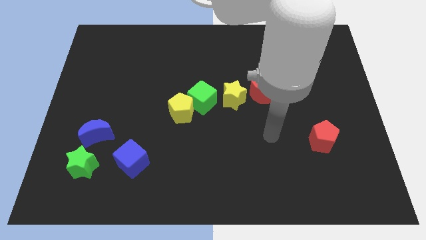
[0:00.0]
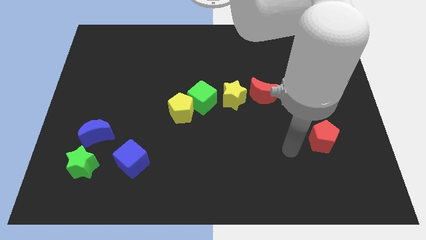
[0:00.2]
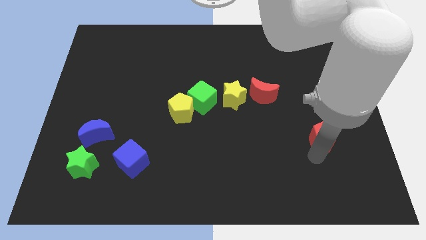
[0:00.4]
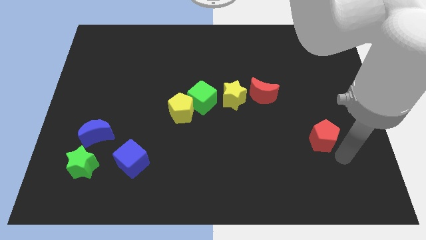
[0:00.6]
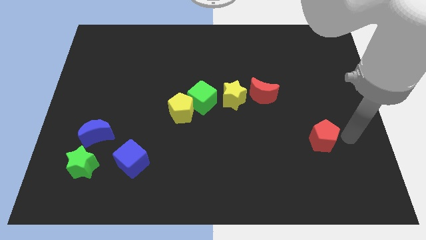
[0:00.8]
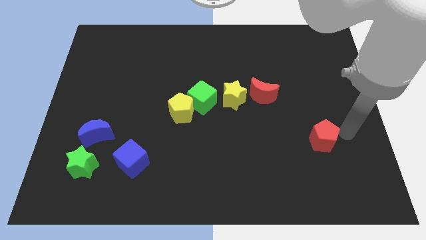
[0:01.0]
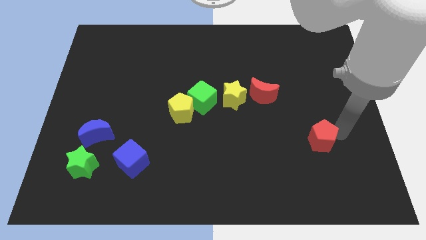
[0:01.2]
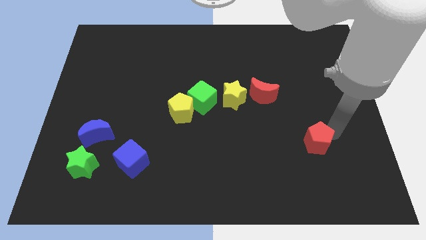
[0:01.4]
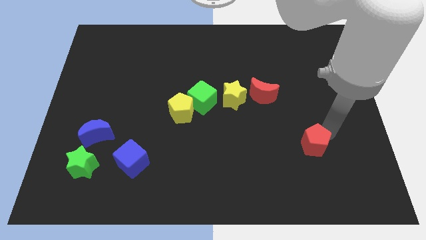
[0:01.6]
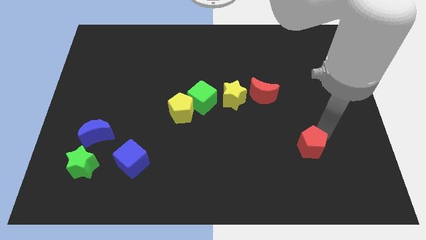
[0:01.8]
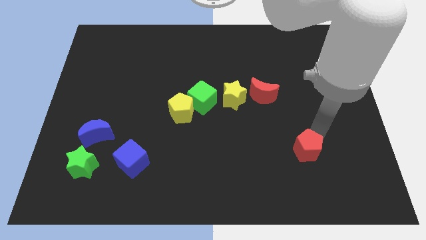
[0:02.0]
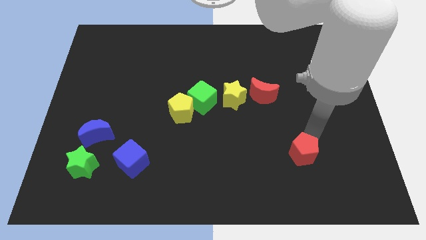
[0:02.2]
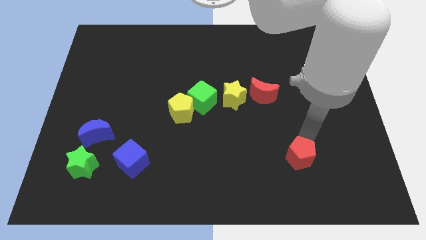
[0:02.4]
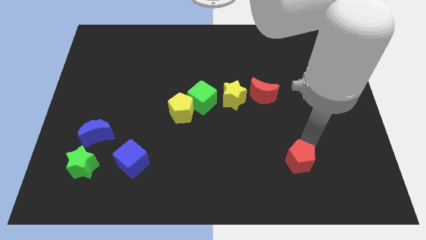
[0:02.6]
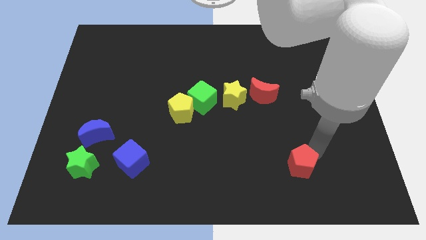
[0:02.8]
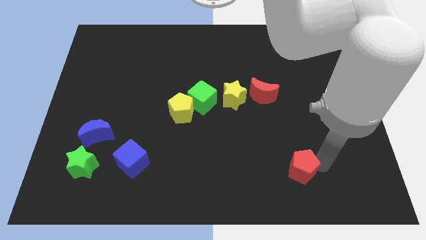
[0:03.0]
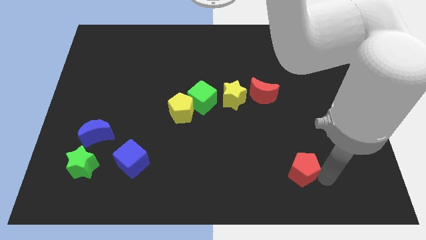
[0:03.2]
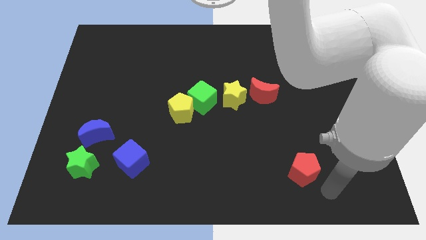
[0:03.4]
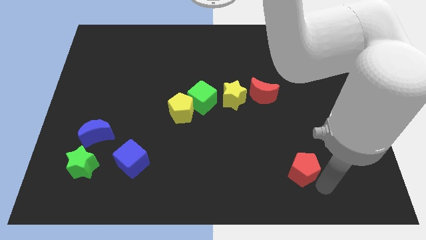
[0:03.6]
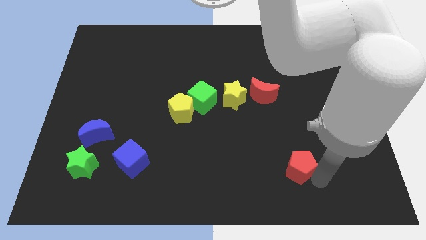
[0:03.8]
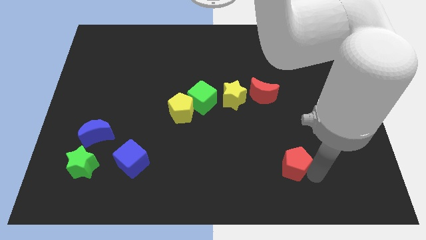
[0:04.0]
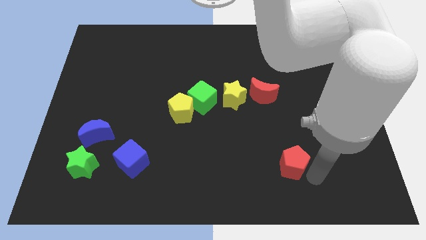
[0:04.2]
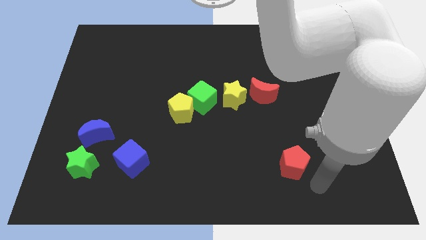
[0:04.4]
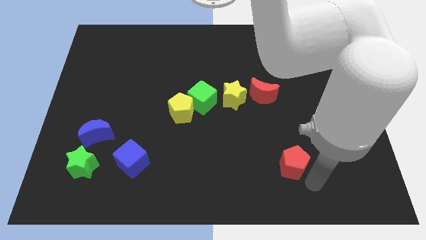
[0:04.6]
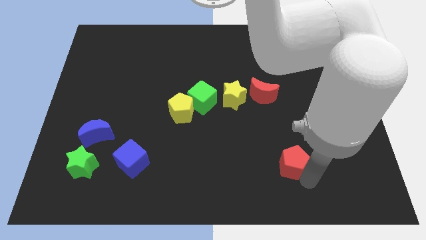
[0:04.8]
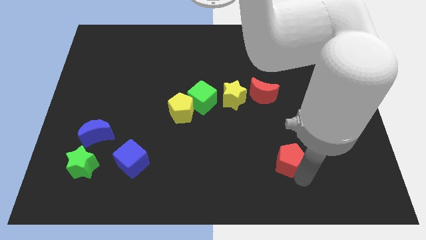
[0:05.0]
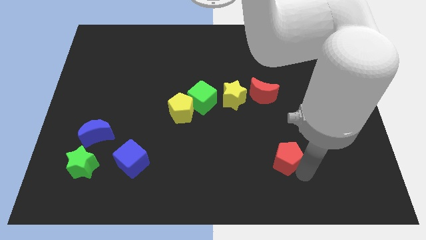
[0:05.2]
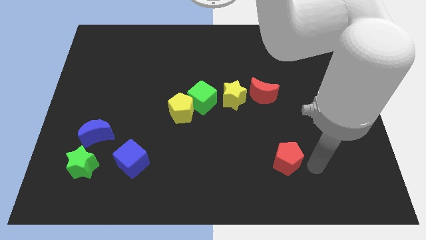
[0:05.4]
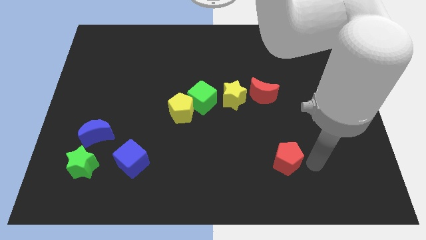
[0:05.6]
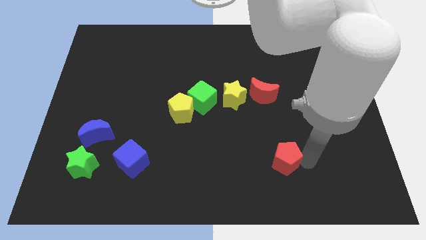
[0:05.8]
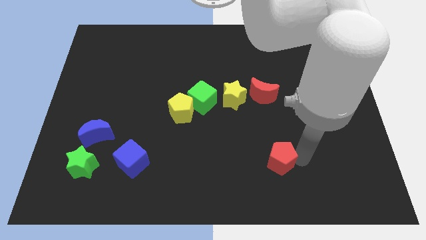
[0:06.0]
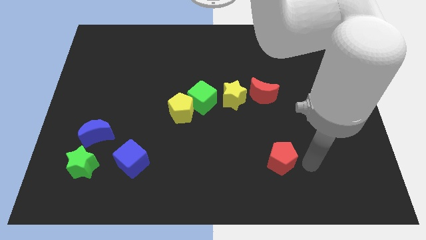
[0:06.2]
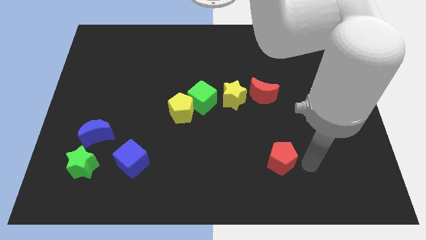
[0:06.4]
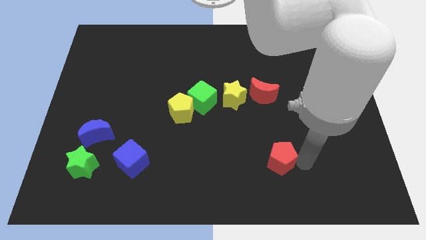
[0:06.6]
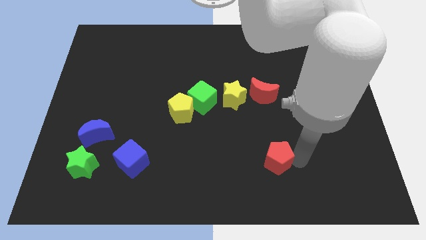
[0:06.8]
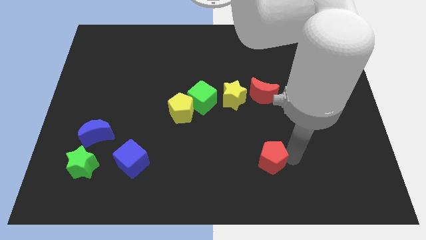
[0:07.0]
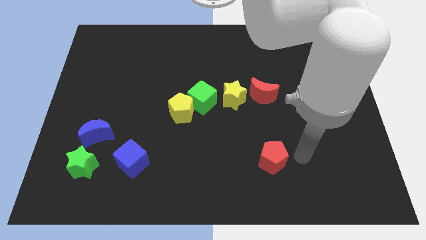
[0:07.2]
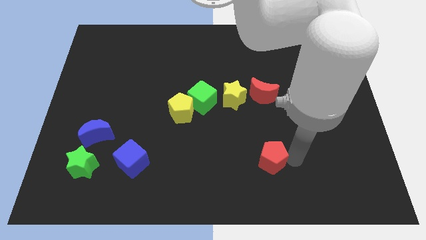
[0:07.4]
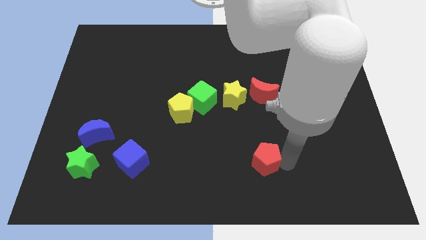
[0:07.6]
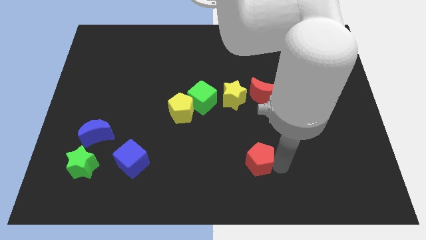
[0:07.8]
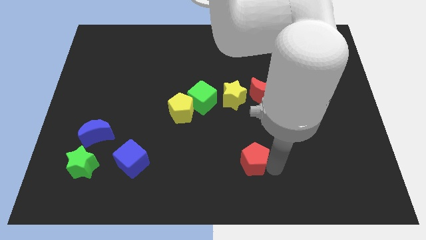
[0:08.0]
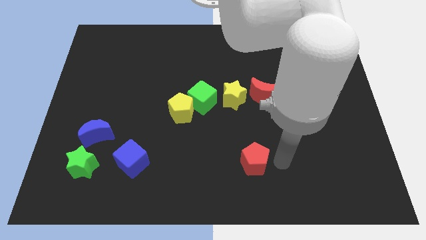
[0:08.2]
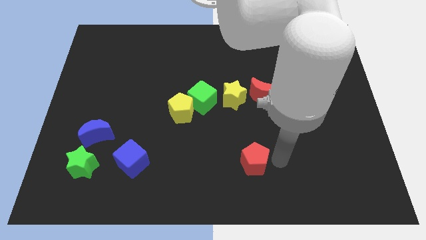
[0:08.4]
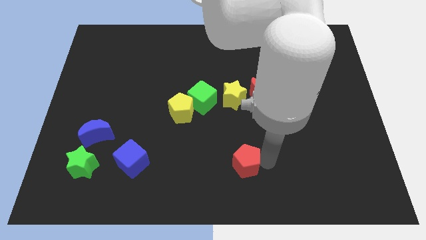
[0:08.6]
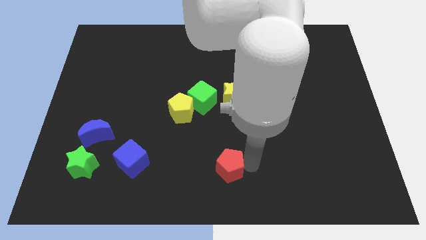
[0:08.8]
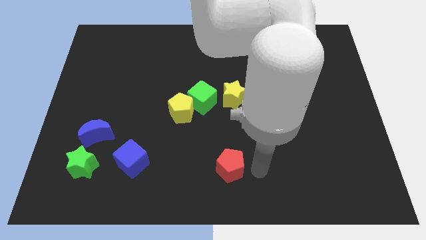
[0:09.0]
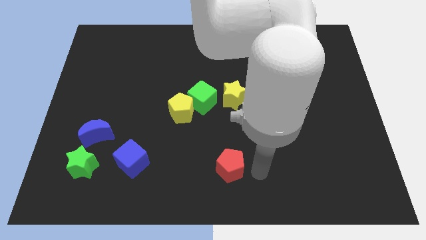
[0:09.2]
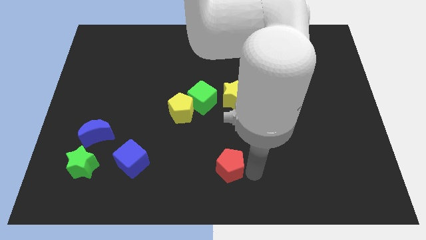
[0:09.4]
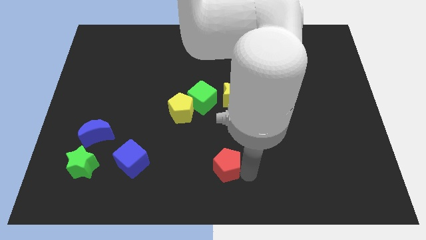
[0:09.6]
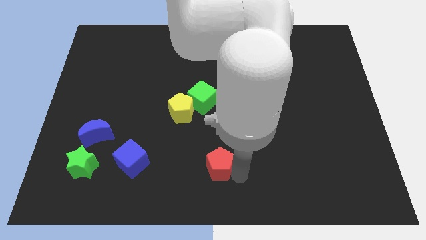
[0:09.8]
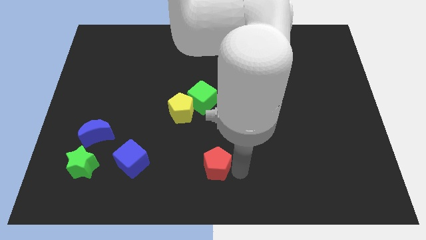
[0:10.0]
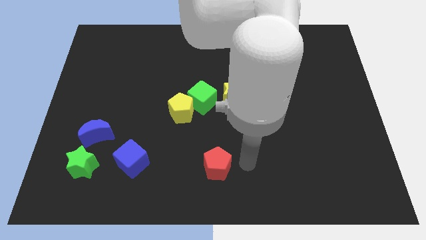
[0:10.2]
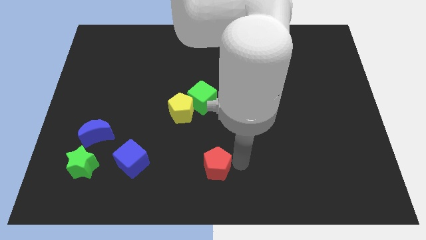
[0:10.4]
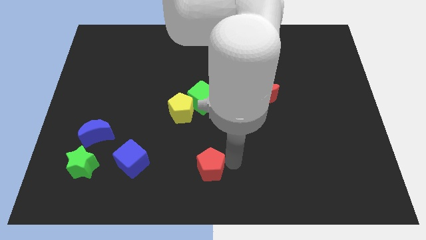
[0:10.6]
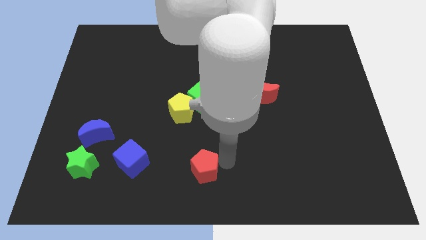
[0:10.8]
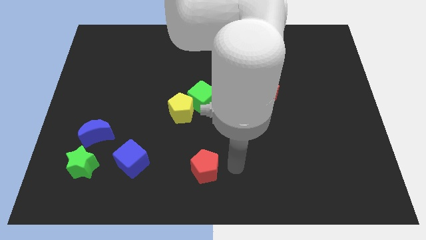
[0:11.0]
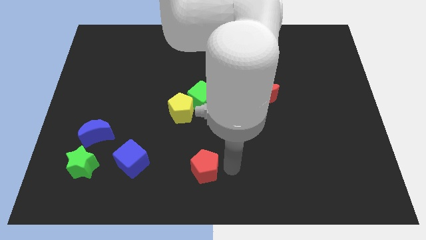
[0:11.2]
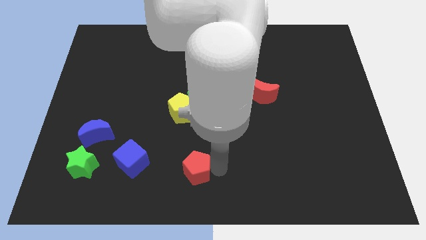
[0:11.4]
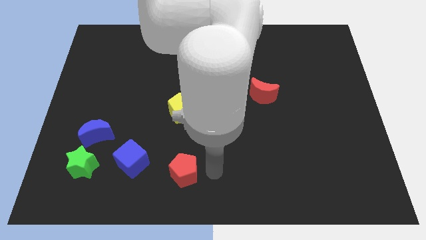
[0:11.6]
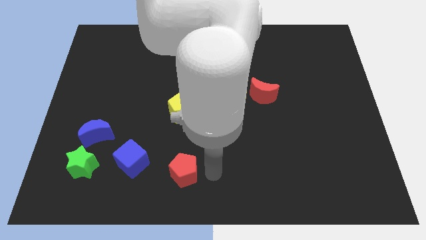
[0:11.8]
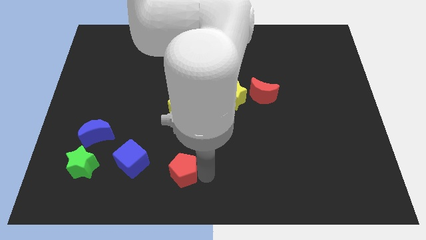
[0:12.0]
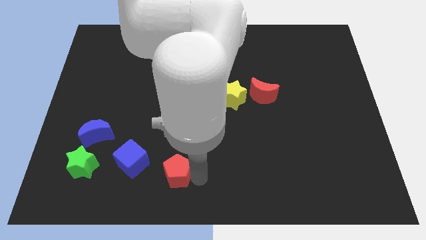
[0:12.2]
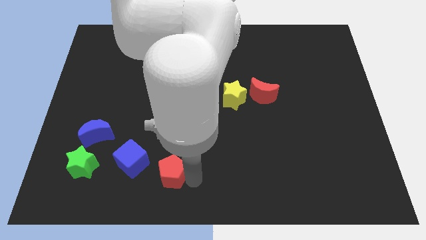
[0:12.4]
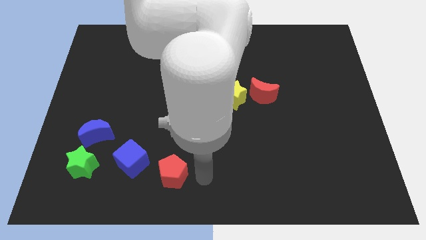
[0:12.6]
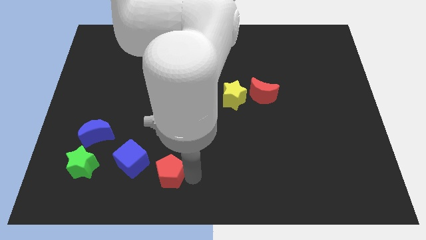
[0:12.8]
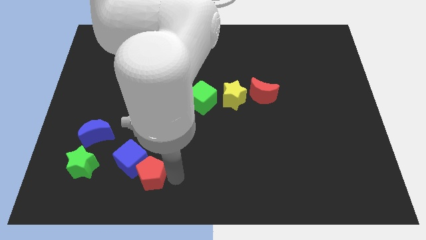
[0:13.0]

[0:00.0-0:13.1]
move the red pentagon towards the blue cube

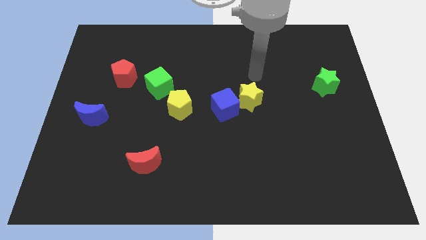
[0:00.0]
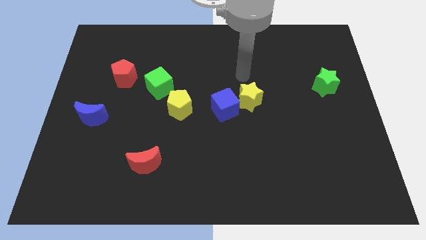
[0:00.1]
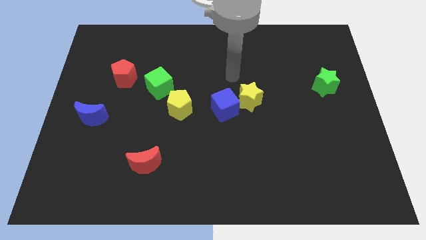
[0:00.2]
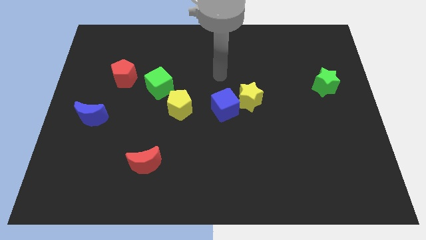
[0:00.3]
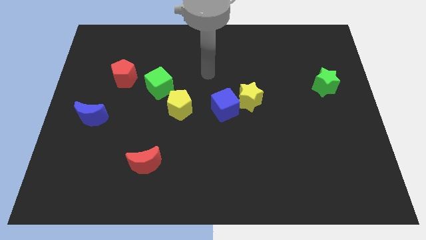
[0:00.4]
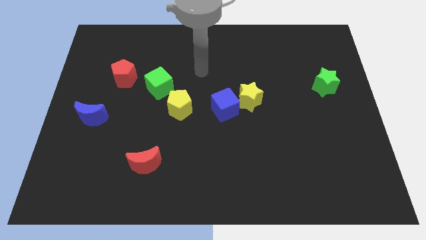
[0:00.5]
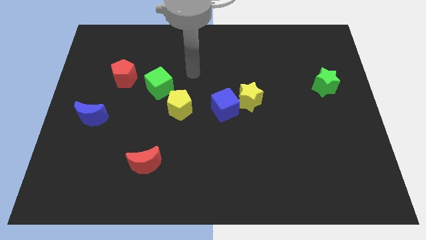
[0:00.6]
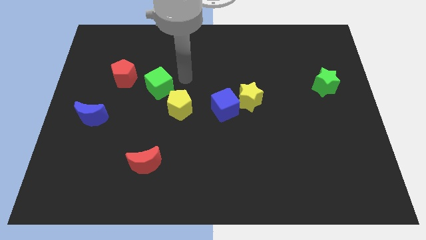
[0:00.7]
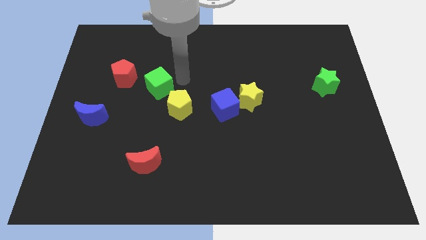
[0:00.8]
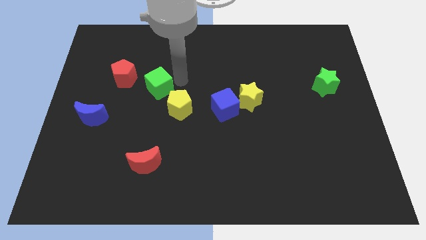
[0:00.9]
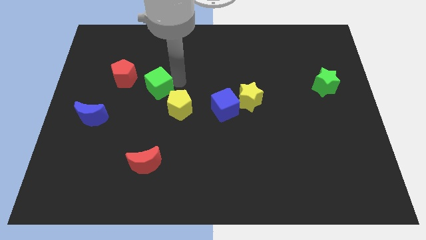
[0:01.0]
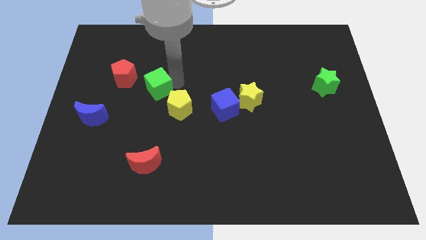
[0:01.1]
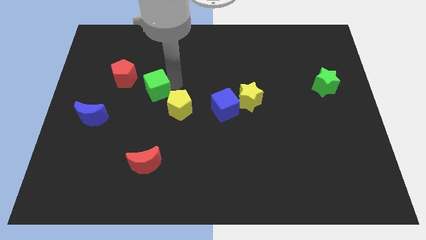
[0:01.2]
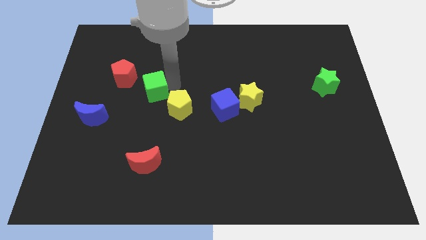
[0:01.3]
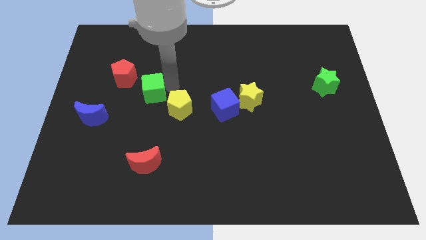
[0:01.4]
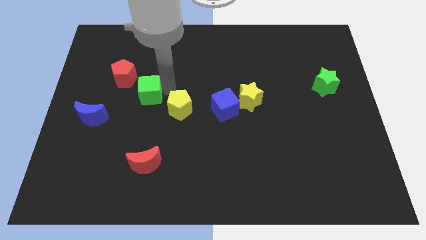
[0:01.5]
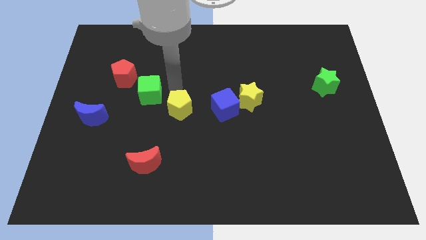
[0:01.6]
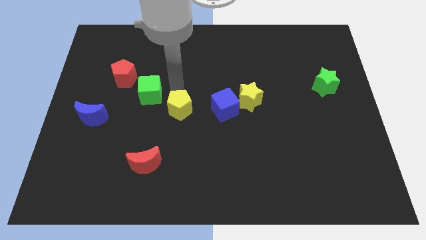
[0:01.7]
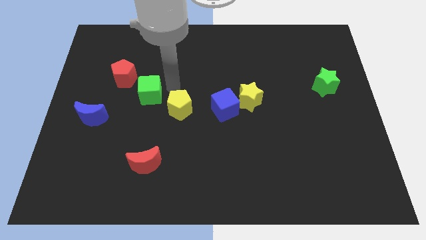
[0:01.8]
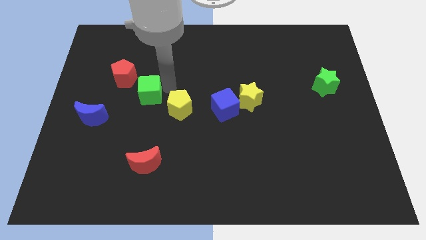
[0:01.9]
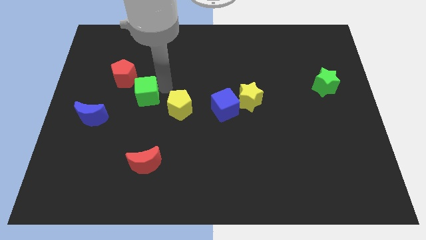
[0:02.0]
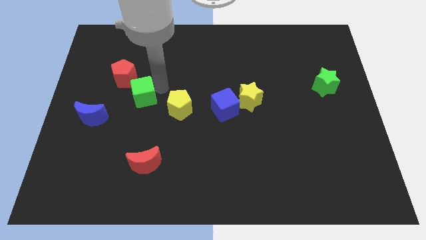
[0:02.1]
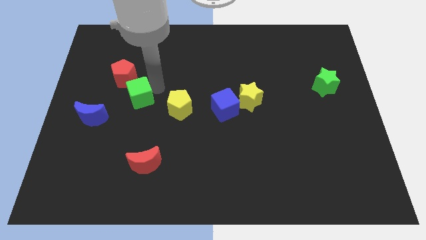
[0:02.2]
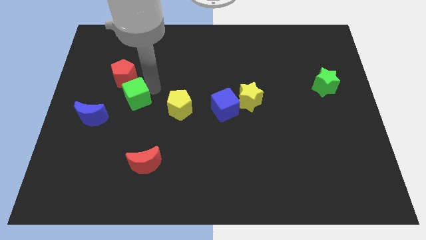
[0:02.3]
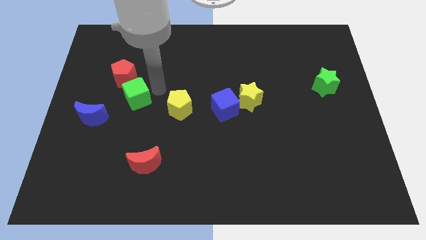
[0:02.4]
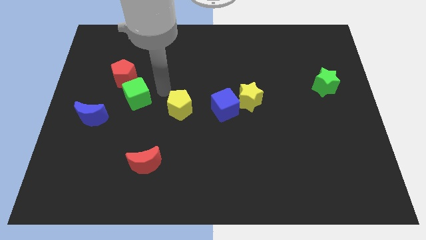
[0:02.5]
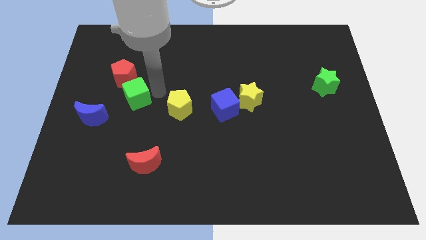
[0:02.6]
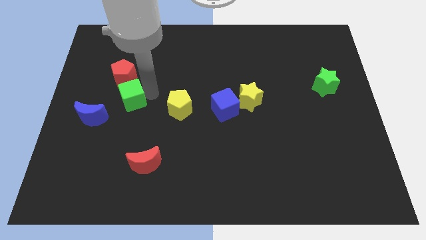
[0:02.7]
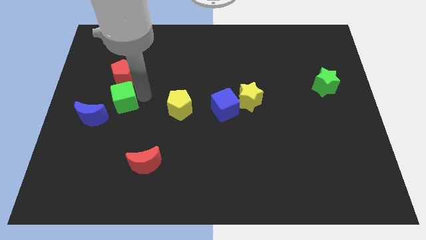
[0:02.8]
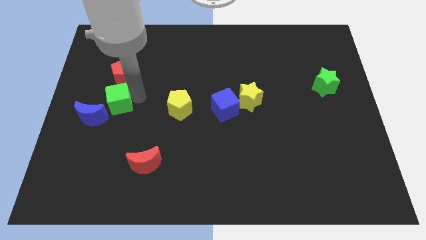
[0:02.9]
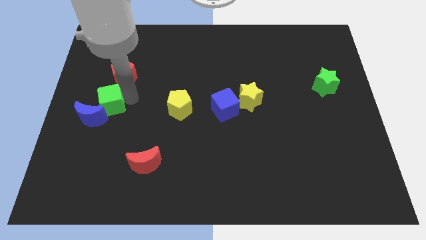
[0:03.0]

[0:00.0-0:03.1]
put the green cube next to the blue moon
